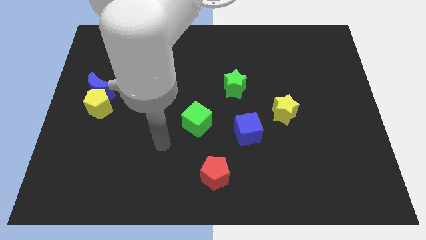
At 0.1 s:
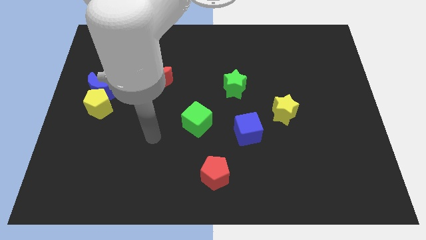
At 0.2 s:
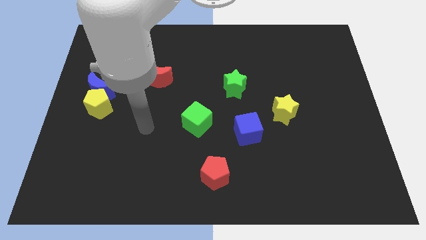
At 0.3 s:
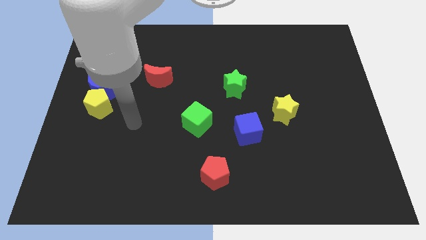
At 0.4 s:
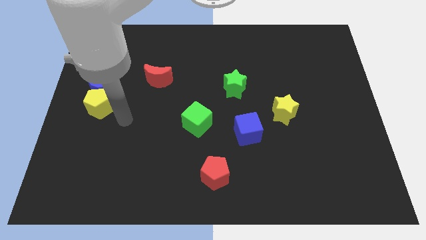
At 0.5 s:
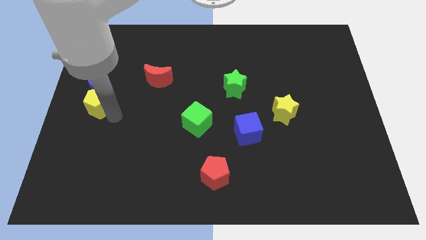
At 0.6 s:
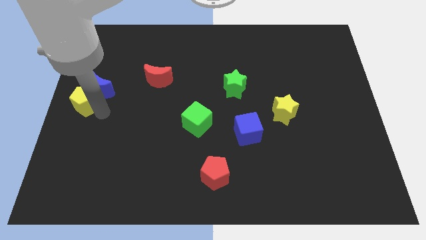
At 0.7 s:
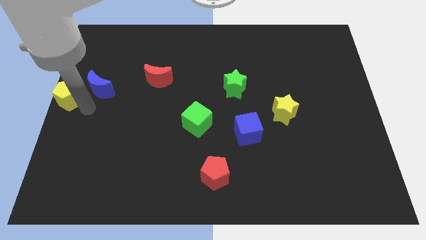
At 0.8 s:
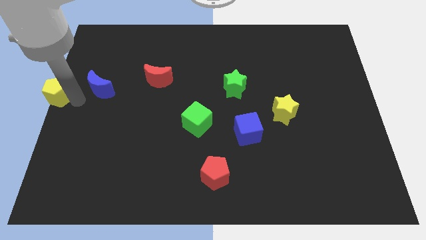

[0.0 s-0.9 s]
move the blue moon away from the yellow pentagon

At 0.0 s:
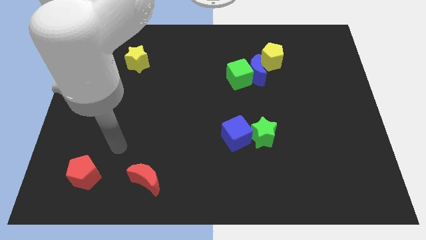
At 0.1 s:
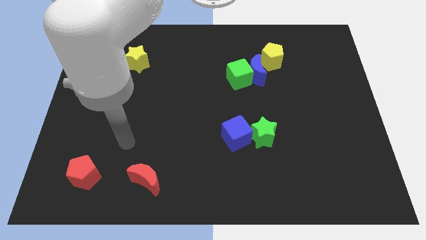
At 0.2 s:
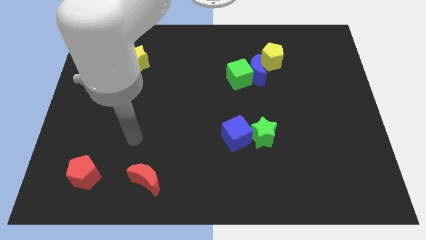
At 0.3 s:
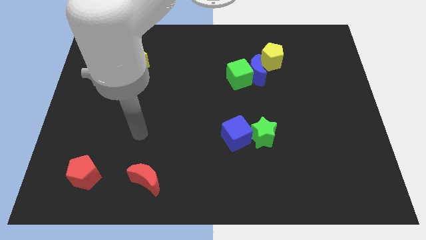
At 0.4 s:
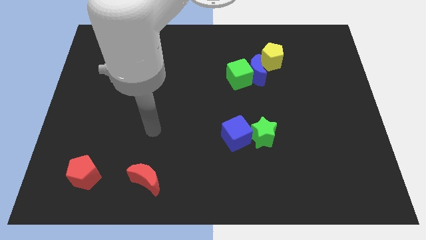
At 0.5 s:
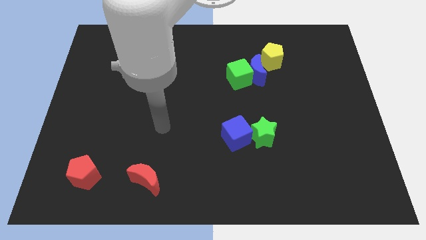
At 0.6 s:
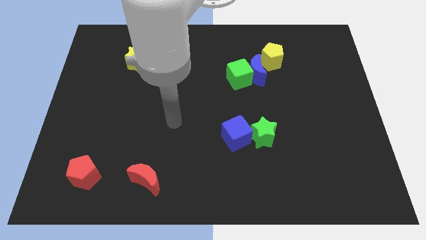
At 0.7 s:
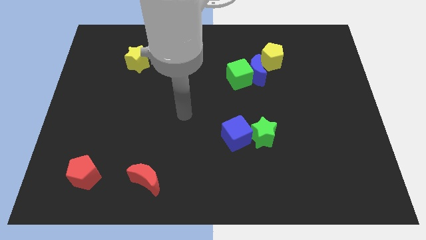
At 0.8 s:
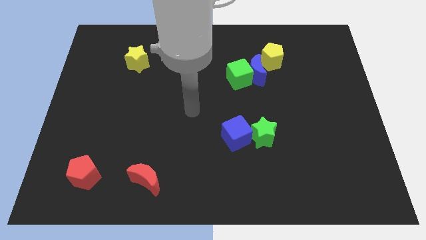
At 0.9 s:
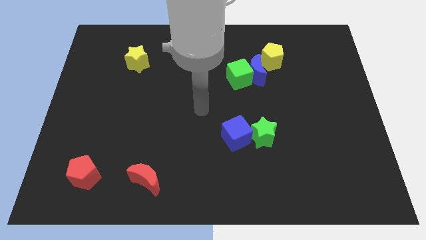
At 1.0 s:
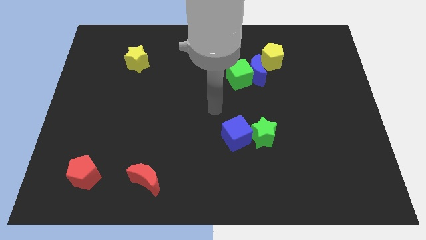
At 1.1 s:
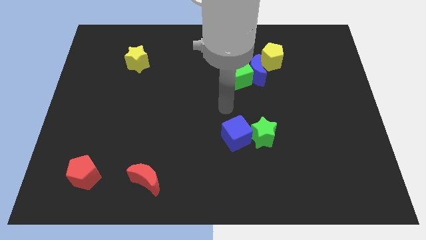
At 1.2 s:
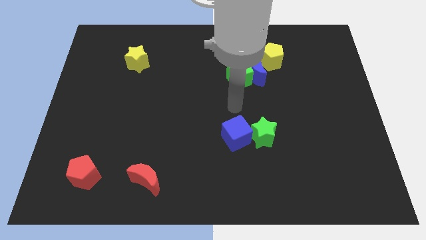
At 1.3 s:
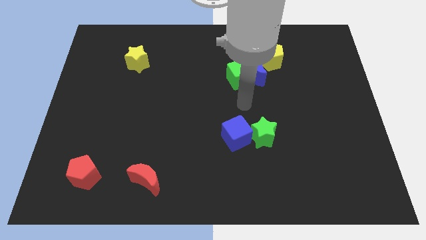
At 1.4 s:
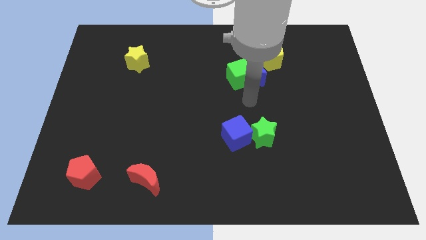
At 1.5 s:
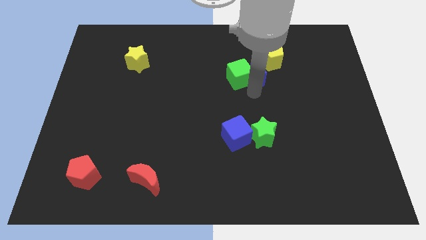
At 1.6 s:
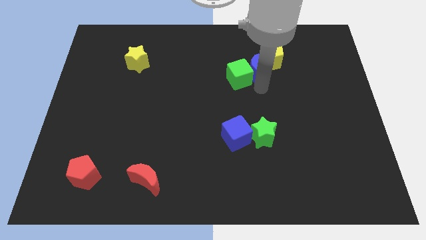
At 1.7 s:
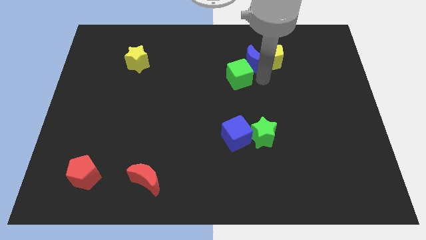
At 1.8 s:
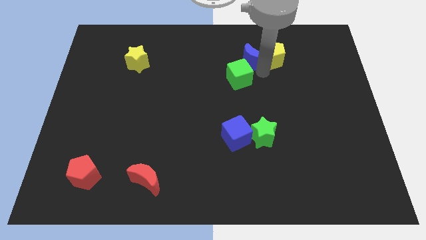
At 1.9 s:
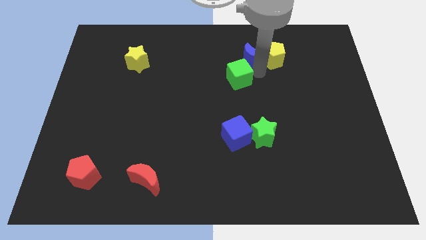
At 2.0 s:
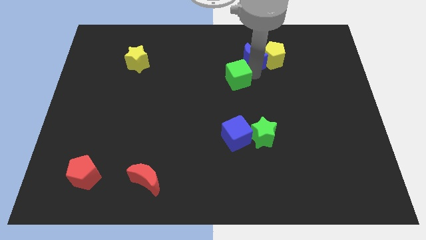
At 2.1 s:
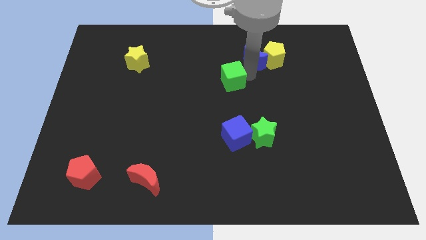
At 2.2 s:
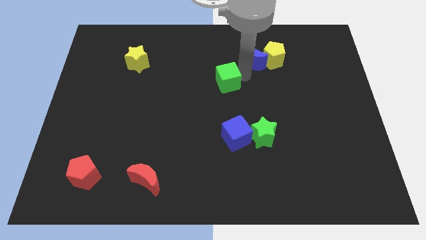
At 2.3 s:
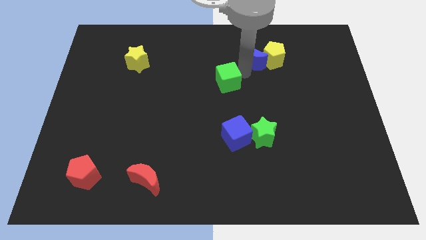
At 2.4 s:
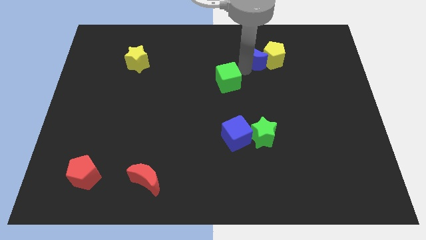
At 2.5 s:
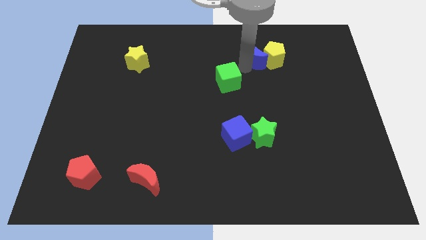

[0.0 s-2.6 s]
pull the green cube apart from the blue moon

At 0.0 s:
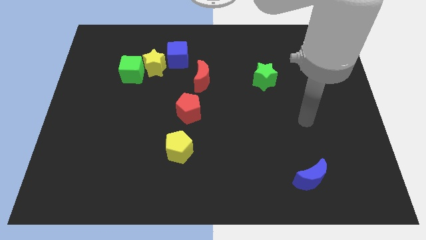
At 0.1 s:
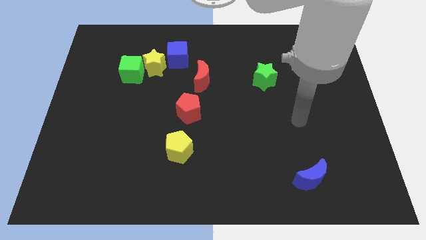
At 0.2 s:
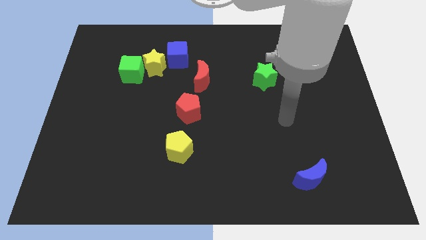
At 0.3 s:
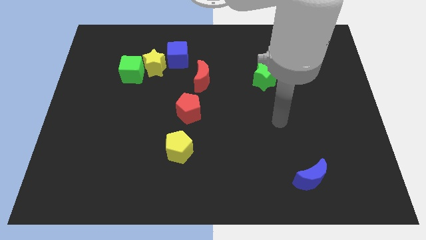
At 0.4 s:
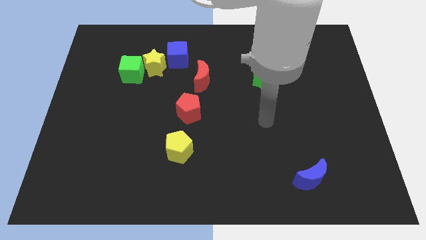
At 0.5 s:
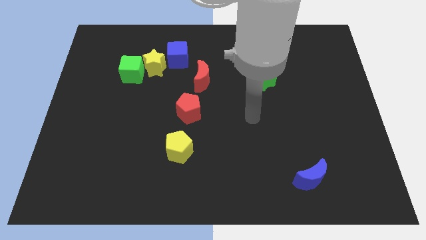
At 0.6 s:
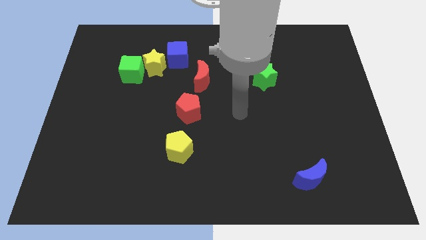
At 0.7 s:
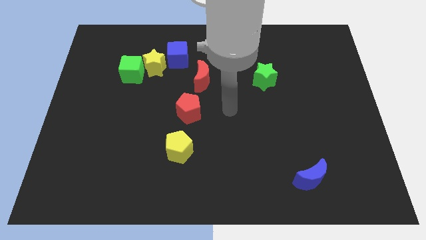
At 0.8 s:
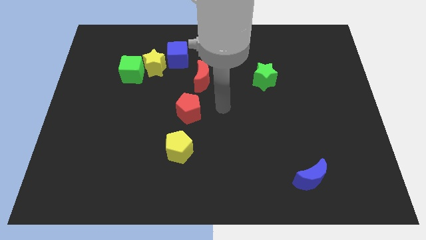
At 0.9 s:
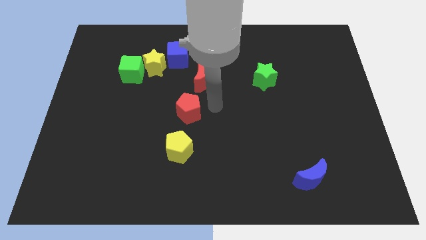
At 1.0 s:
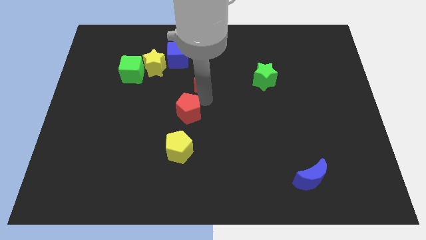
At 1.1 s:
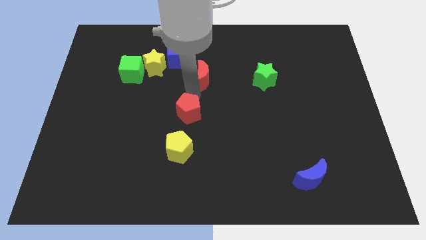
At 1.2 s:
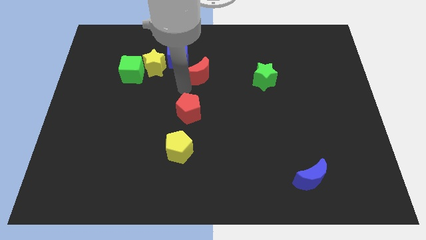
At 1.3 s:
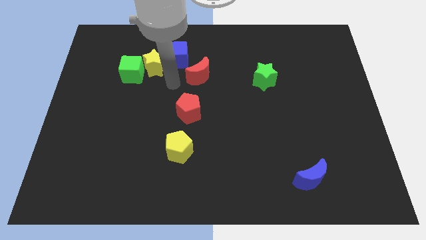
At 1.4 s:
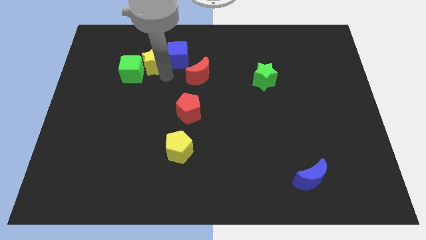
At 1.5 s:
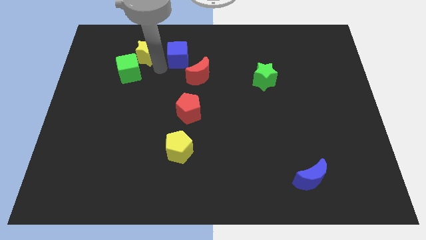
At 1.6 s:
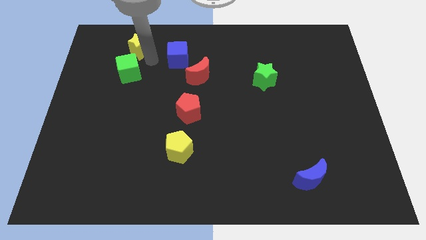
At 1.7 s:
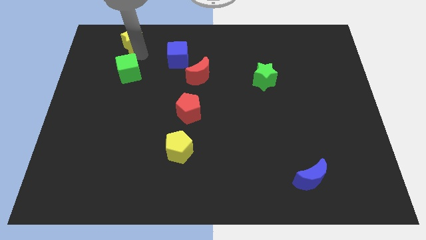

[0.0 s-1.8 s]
move the green cube away from the yellow star

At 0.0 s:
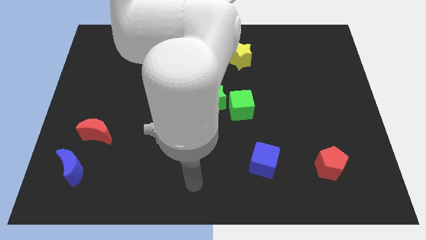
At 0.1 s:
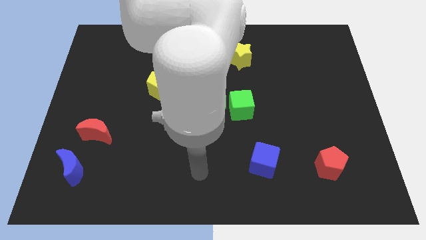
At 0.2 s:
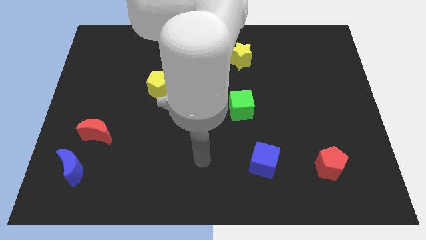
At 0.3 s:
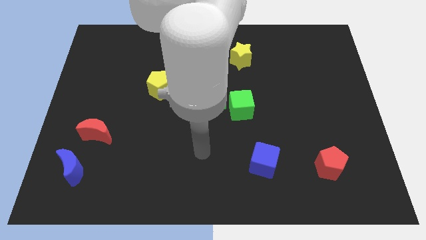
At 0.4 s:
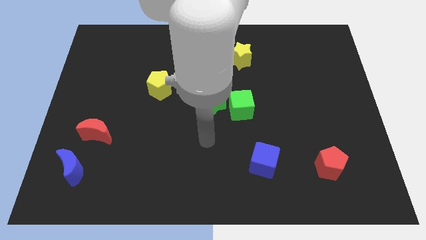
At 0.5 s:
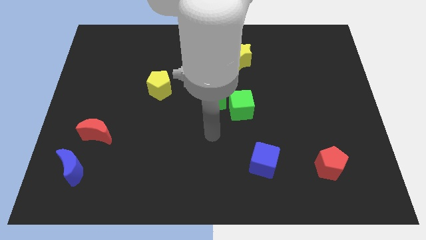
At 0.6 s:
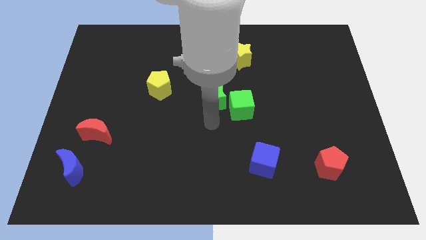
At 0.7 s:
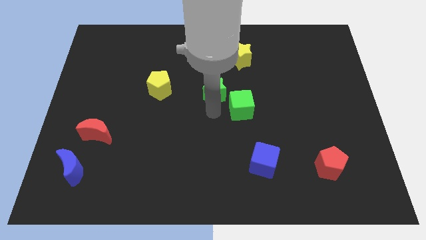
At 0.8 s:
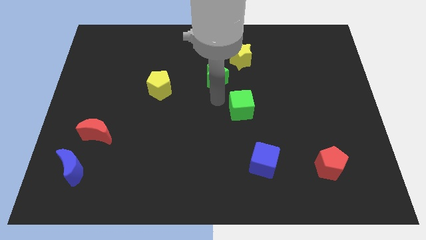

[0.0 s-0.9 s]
move the green cube away from the green star

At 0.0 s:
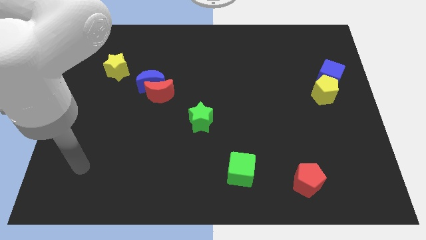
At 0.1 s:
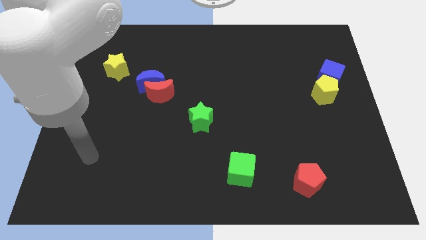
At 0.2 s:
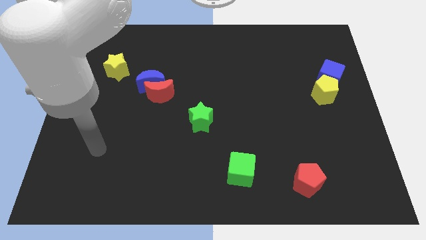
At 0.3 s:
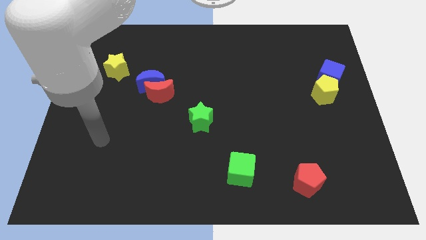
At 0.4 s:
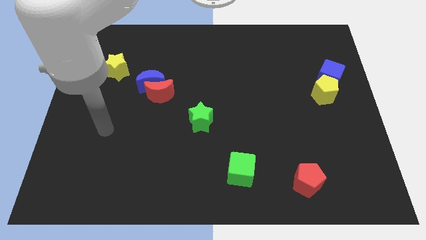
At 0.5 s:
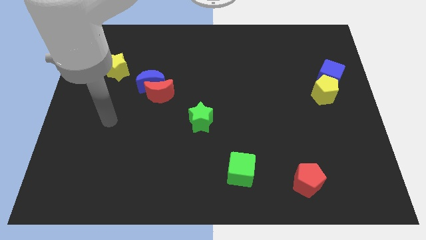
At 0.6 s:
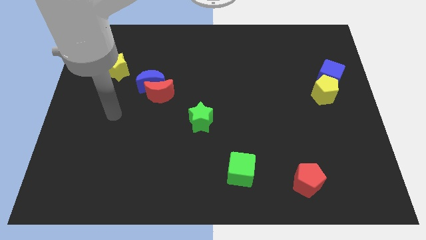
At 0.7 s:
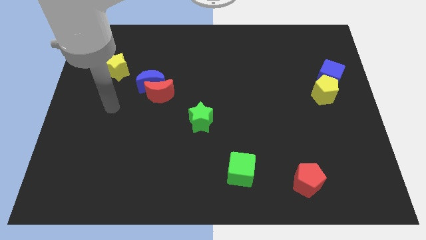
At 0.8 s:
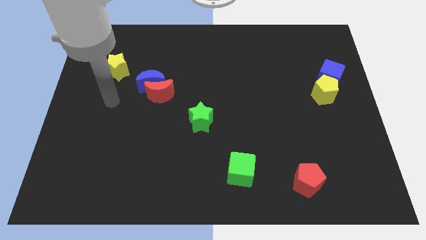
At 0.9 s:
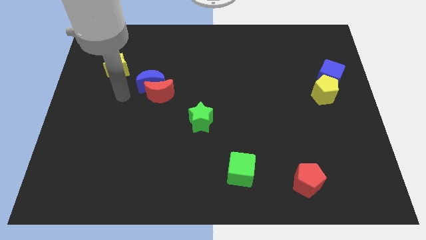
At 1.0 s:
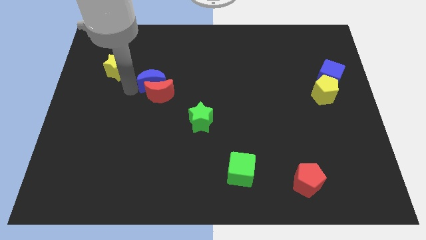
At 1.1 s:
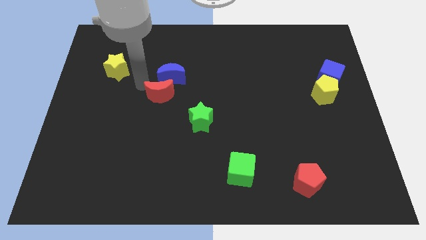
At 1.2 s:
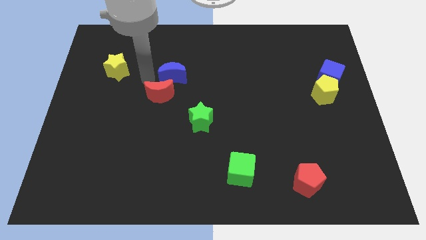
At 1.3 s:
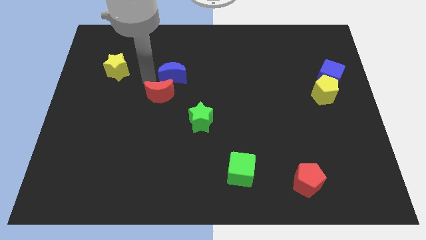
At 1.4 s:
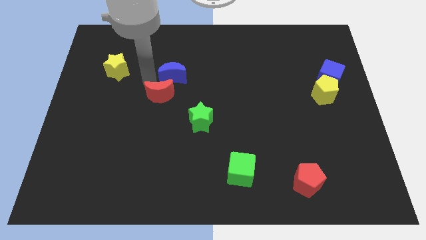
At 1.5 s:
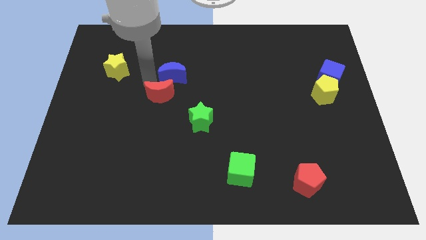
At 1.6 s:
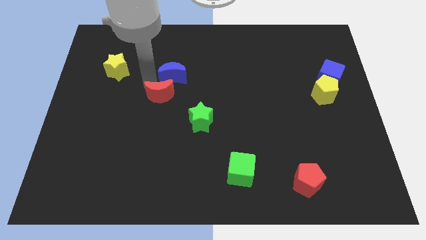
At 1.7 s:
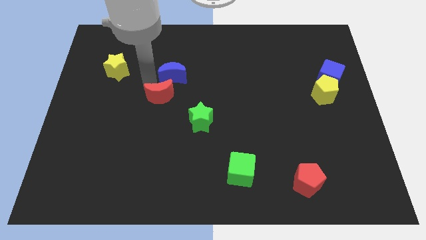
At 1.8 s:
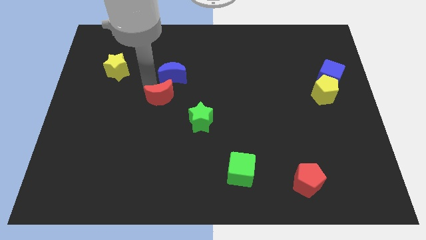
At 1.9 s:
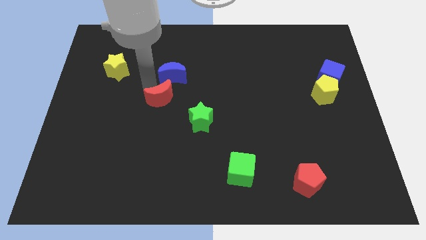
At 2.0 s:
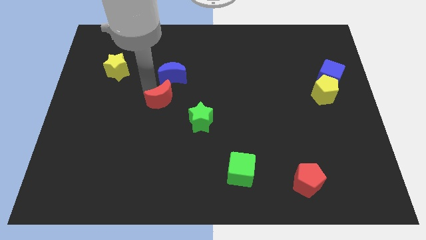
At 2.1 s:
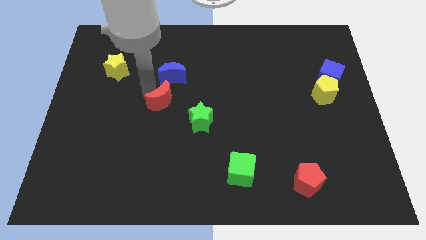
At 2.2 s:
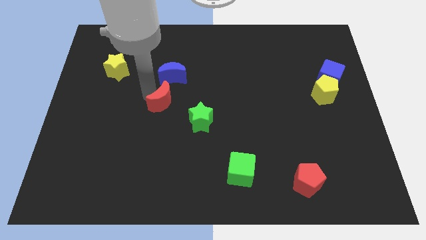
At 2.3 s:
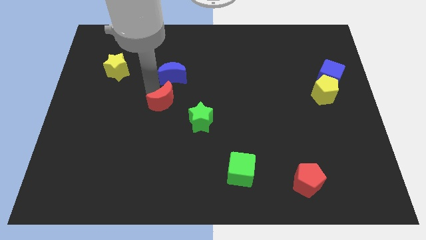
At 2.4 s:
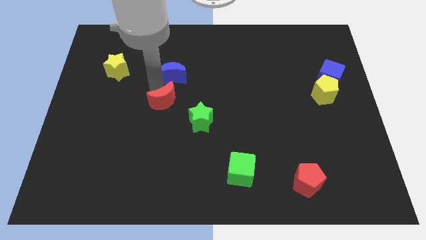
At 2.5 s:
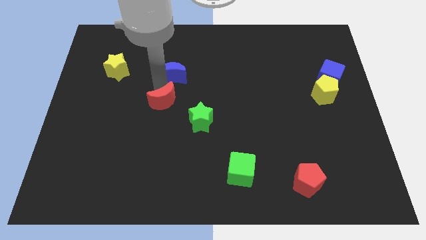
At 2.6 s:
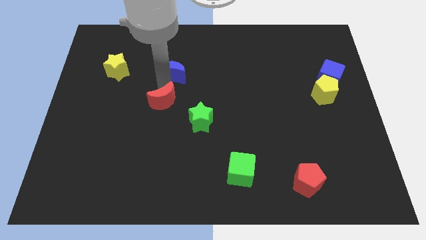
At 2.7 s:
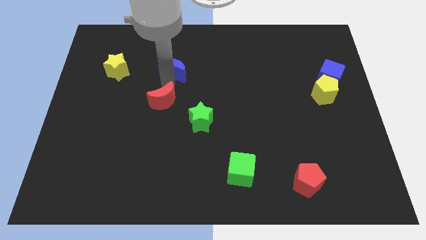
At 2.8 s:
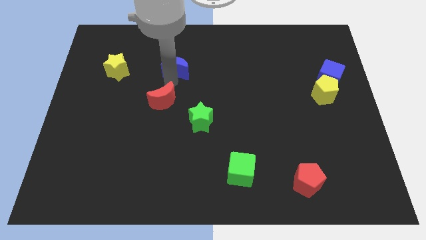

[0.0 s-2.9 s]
pull the red moon apart from the blue moon

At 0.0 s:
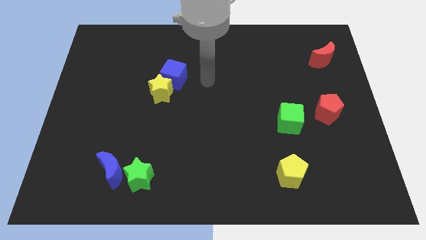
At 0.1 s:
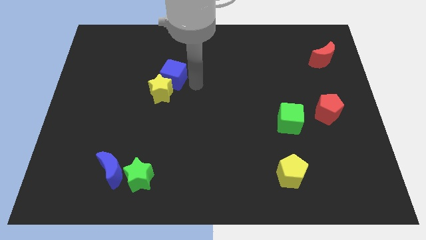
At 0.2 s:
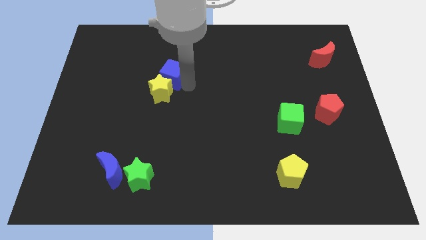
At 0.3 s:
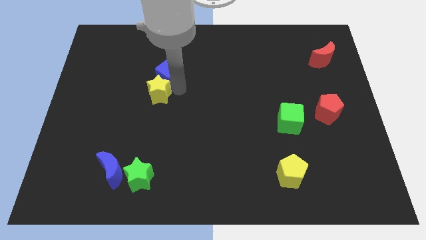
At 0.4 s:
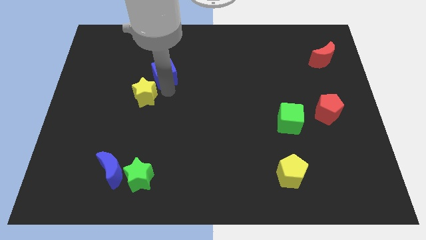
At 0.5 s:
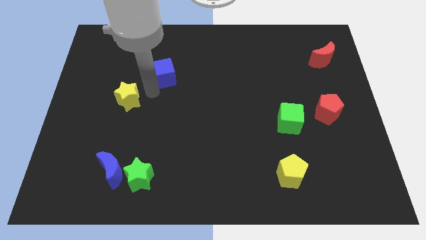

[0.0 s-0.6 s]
pull the blue cube apart from the yellow star
